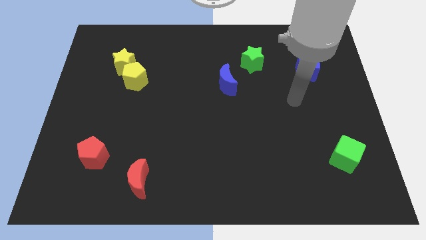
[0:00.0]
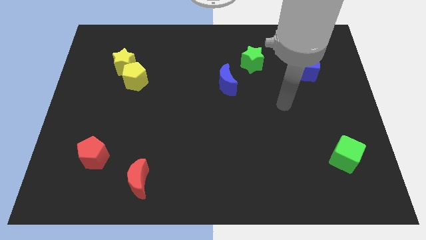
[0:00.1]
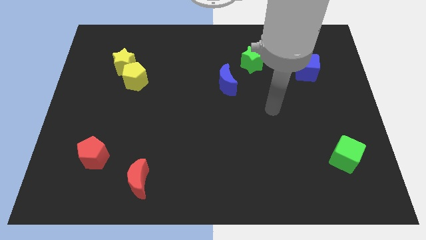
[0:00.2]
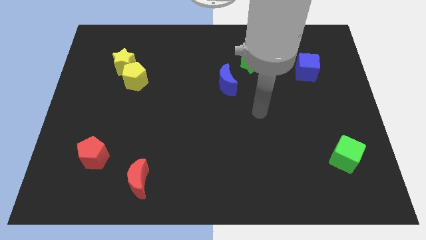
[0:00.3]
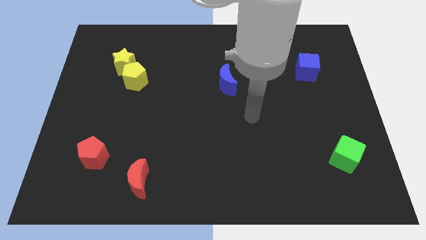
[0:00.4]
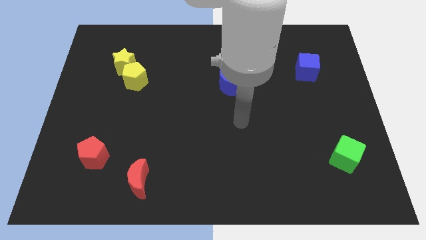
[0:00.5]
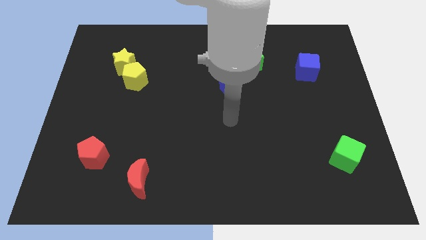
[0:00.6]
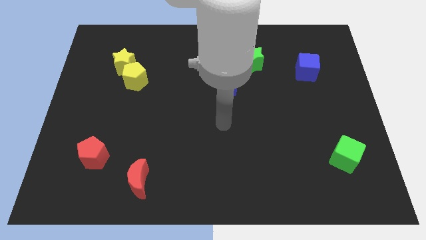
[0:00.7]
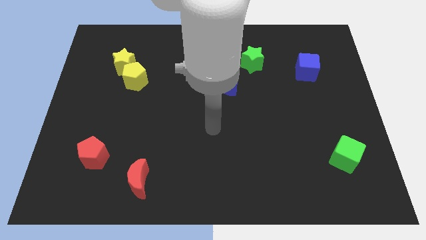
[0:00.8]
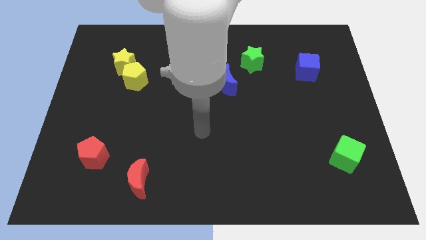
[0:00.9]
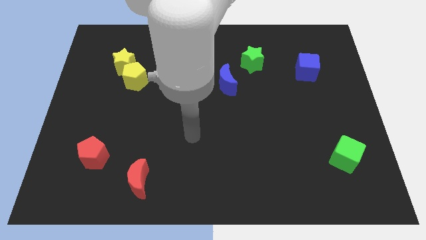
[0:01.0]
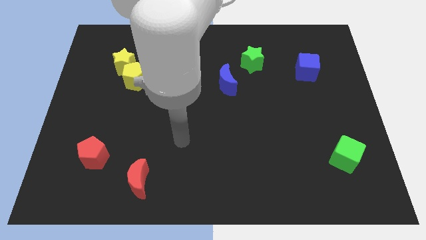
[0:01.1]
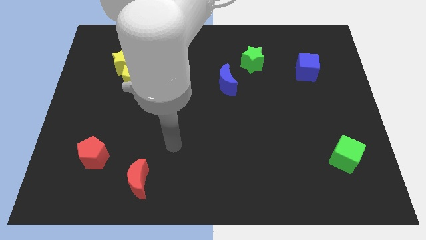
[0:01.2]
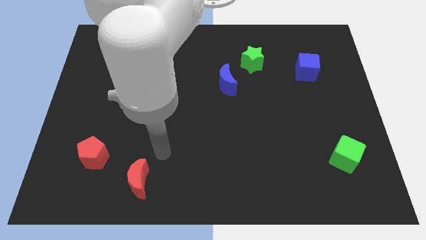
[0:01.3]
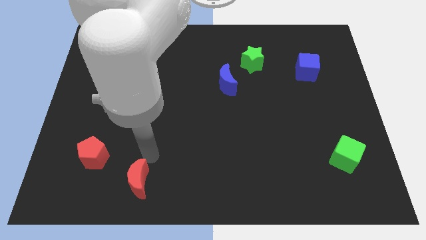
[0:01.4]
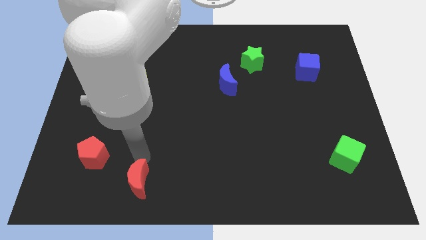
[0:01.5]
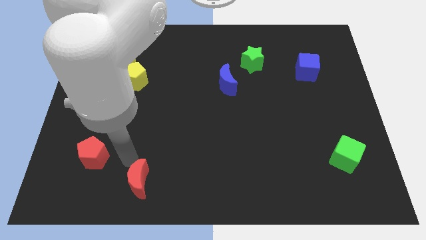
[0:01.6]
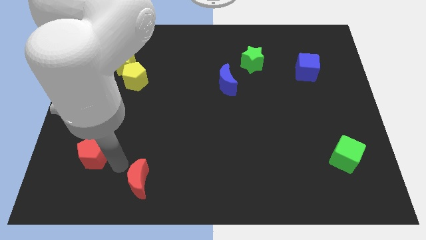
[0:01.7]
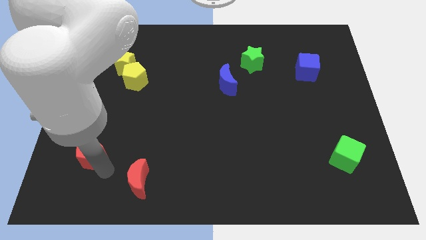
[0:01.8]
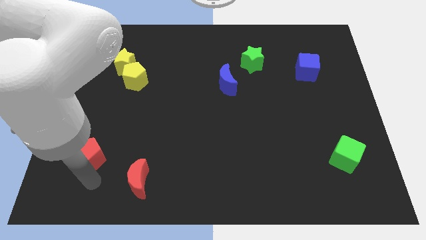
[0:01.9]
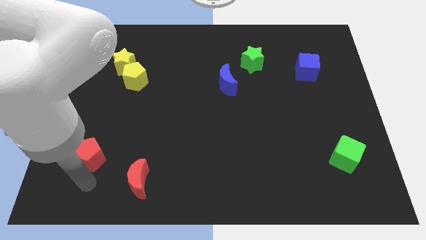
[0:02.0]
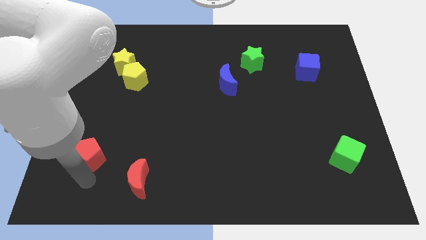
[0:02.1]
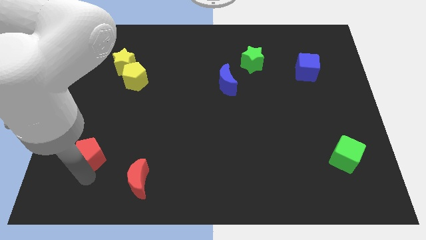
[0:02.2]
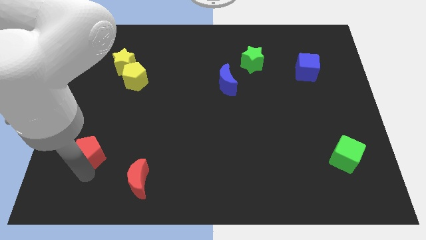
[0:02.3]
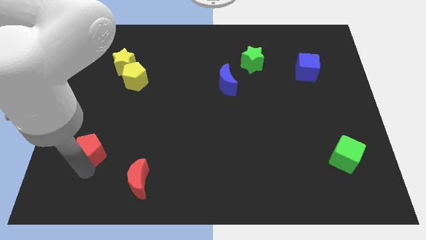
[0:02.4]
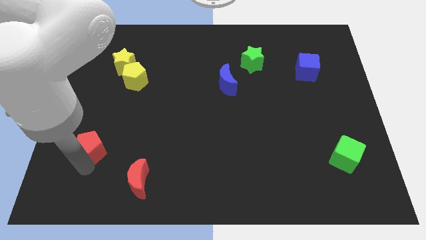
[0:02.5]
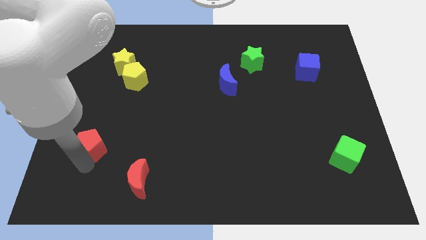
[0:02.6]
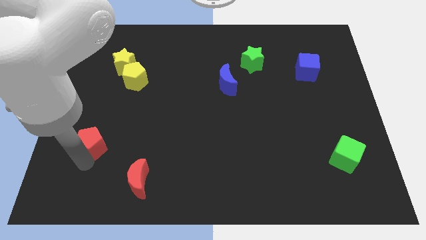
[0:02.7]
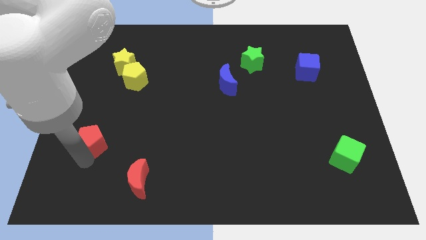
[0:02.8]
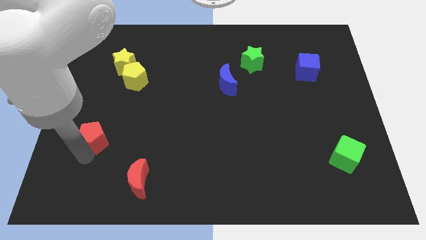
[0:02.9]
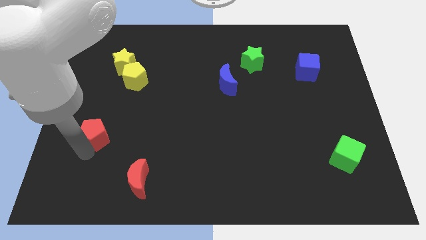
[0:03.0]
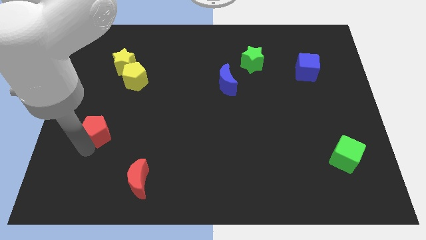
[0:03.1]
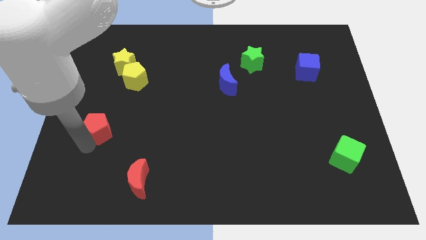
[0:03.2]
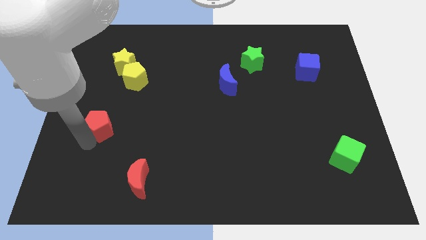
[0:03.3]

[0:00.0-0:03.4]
move the red pentagon a little bit up

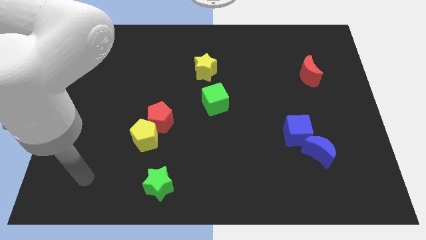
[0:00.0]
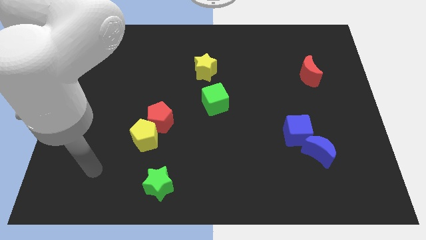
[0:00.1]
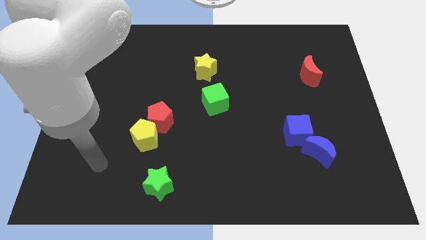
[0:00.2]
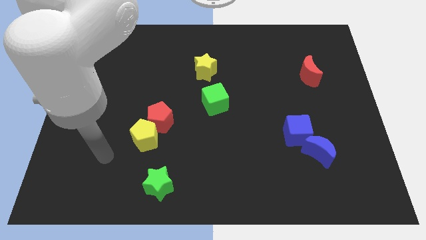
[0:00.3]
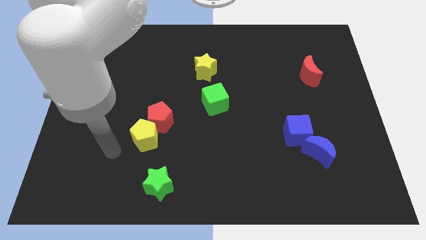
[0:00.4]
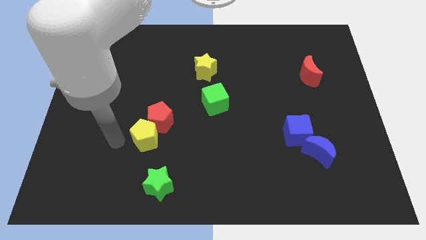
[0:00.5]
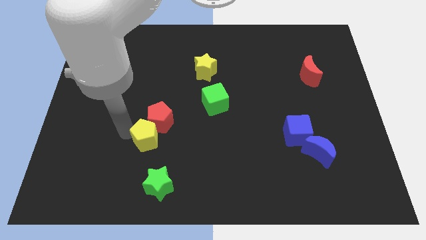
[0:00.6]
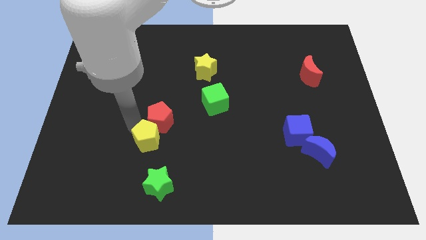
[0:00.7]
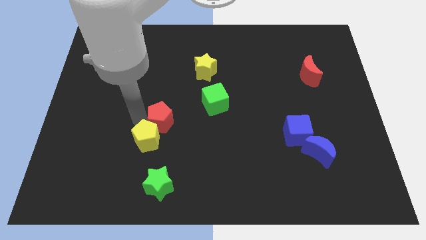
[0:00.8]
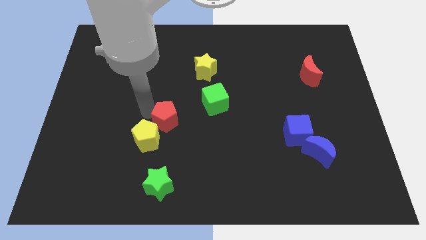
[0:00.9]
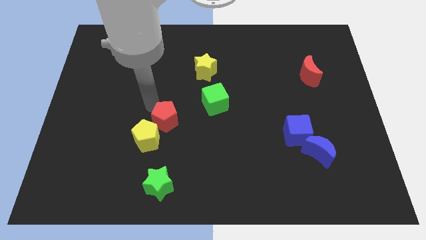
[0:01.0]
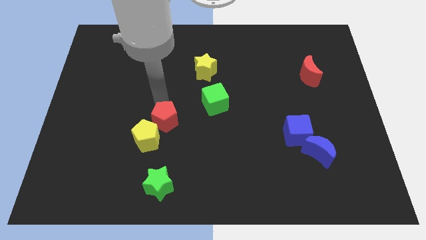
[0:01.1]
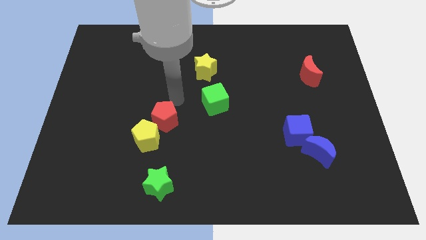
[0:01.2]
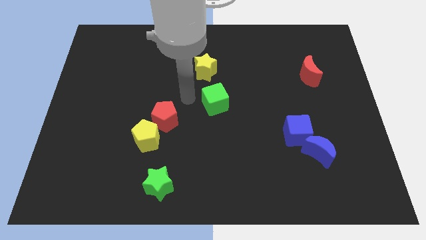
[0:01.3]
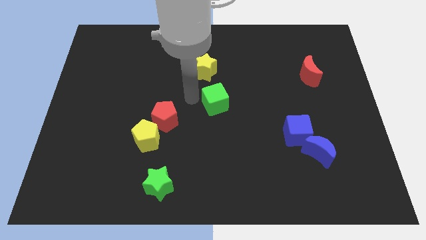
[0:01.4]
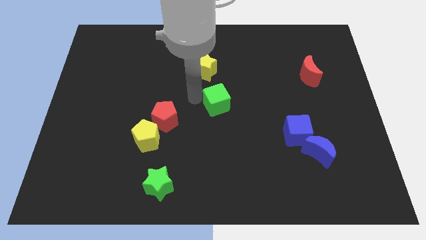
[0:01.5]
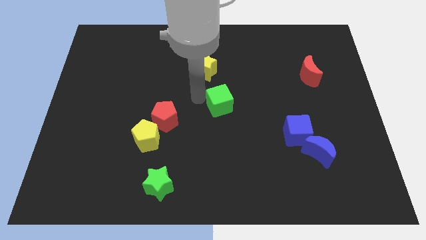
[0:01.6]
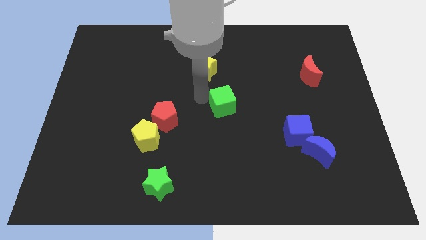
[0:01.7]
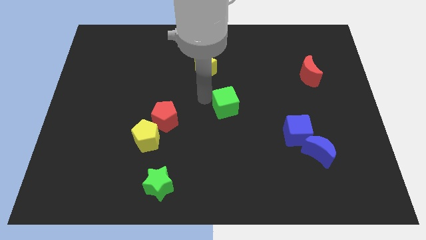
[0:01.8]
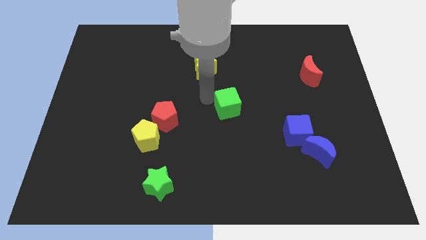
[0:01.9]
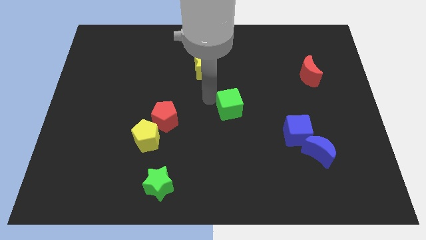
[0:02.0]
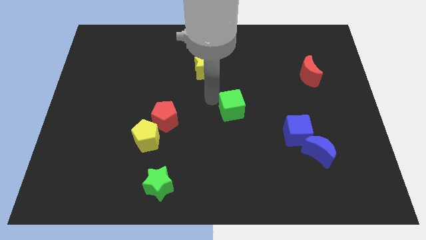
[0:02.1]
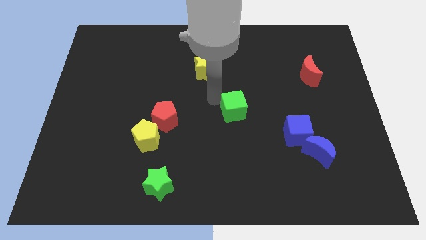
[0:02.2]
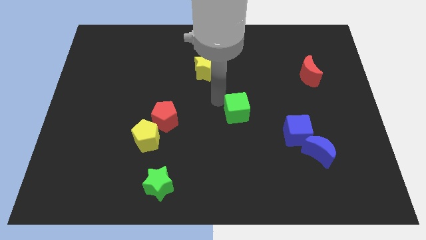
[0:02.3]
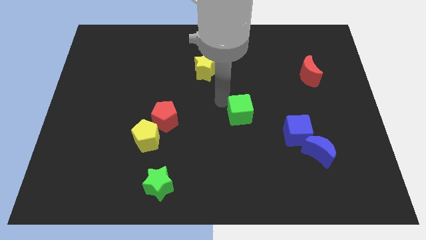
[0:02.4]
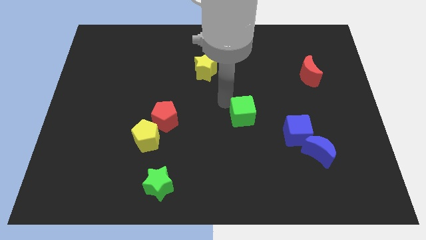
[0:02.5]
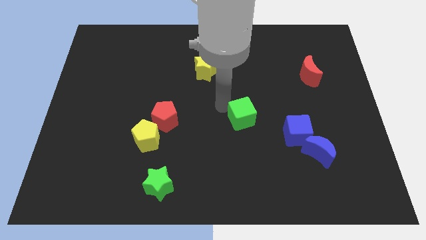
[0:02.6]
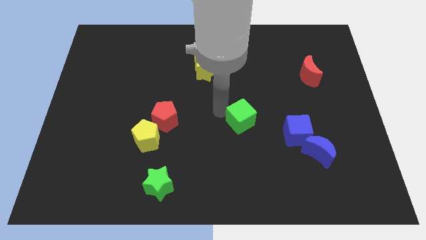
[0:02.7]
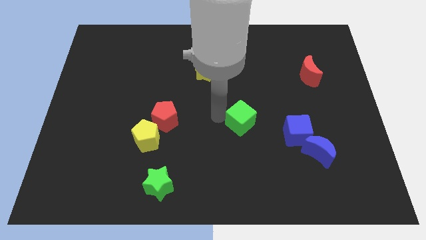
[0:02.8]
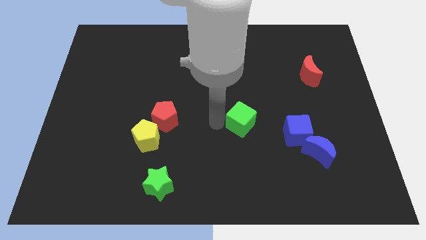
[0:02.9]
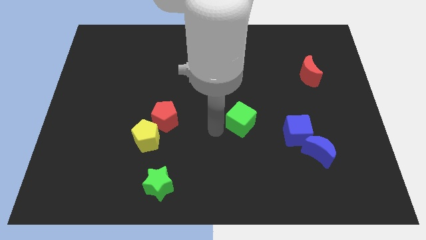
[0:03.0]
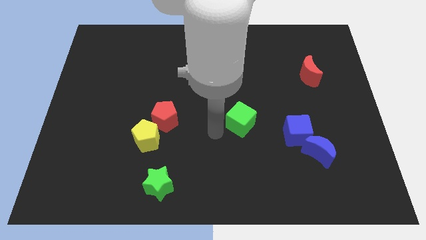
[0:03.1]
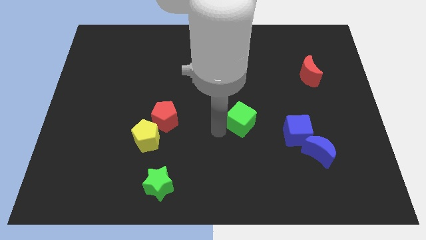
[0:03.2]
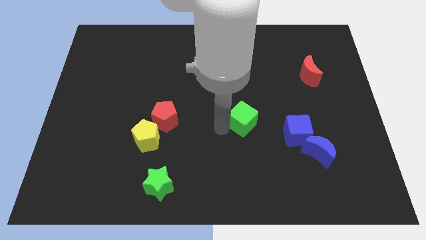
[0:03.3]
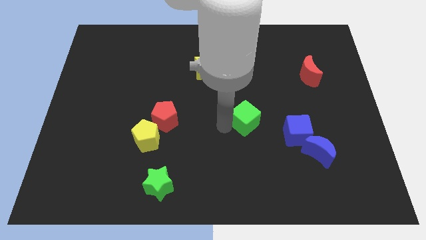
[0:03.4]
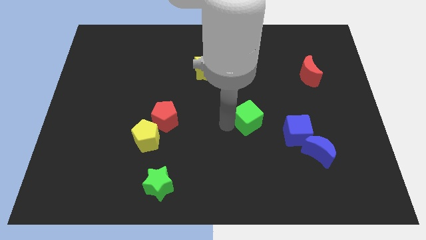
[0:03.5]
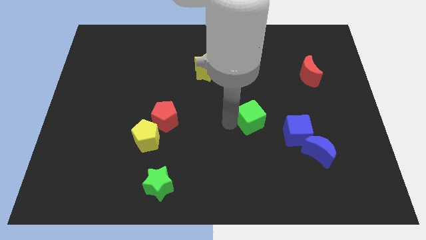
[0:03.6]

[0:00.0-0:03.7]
slightly slide the green cube to the right

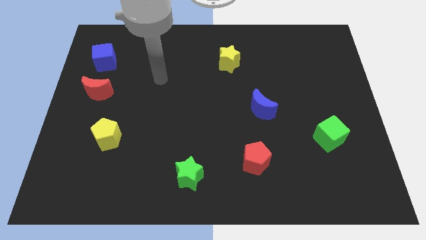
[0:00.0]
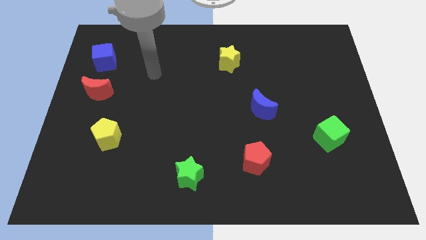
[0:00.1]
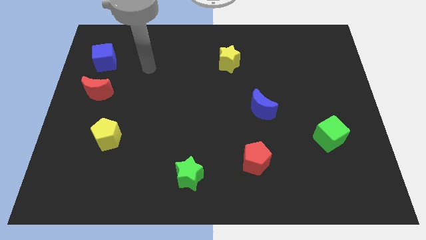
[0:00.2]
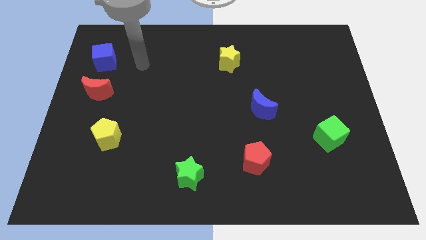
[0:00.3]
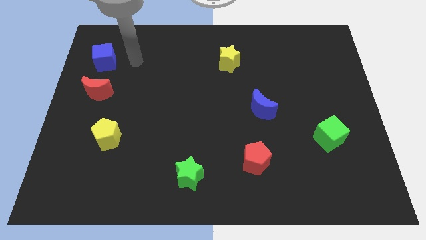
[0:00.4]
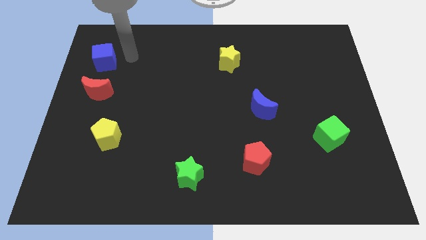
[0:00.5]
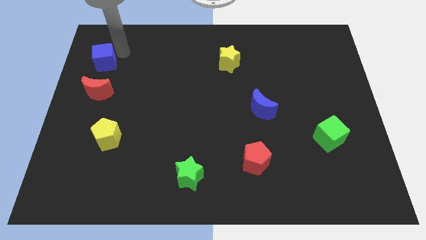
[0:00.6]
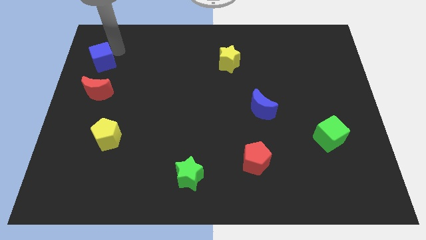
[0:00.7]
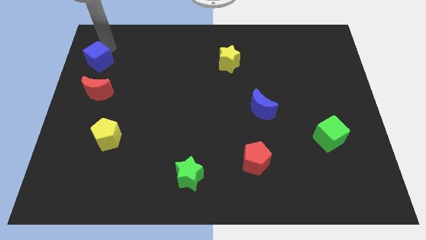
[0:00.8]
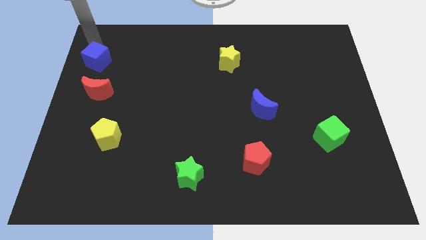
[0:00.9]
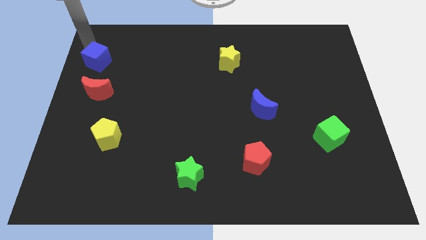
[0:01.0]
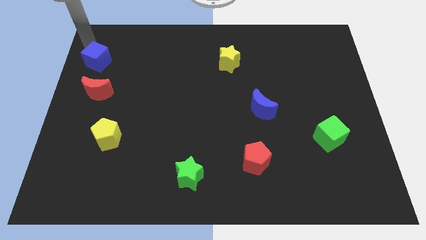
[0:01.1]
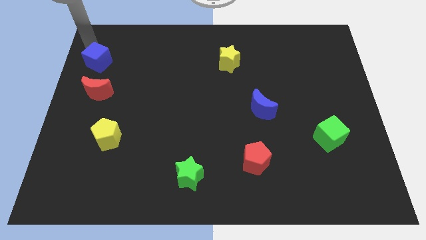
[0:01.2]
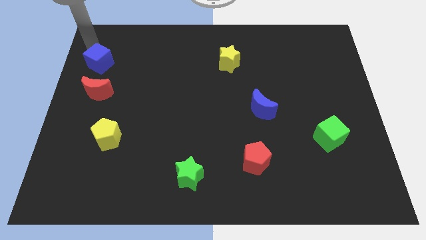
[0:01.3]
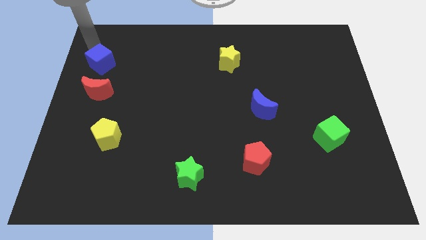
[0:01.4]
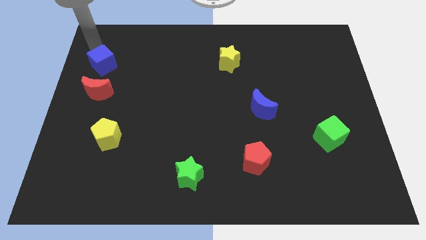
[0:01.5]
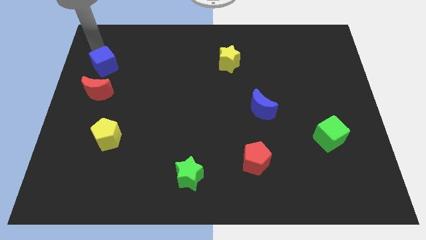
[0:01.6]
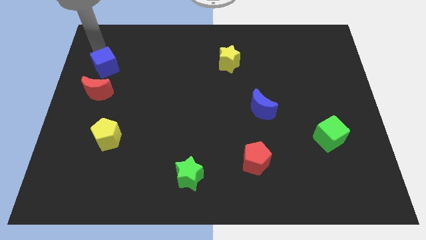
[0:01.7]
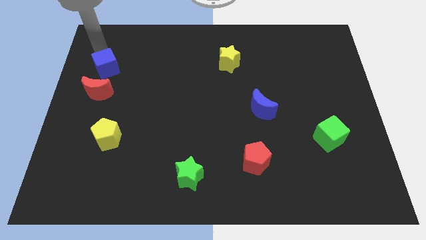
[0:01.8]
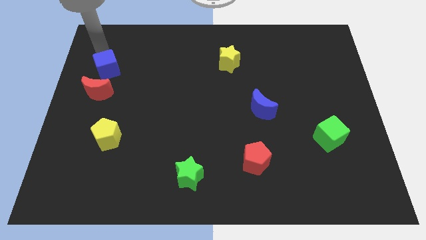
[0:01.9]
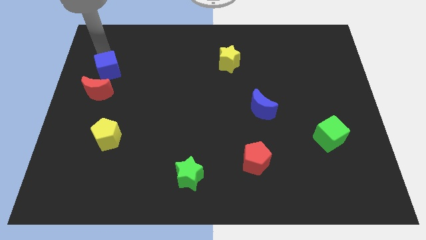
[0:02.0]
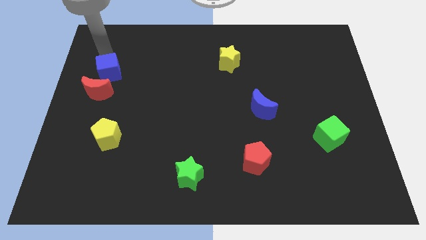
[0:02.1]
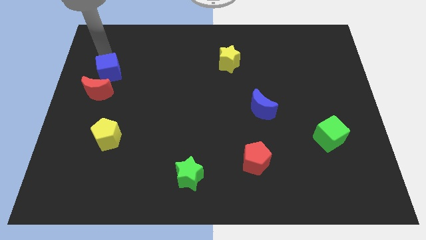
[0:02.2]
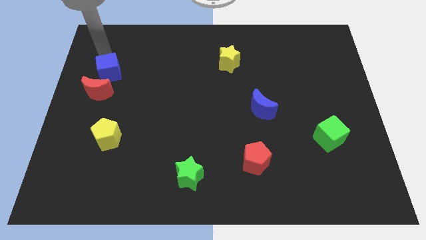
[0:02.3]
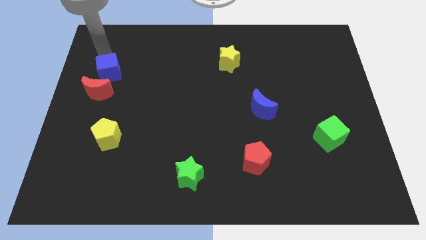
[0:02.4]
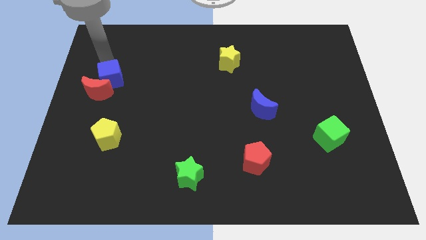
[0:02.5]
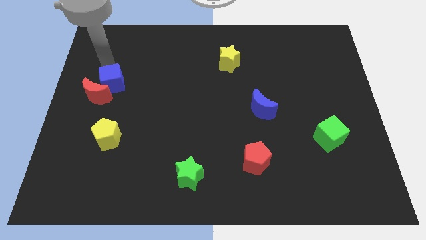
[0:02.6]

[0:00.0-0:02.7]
slide the blue cube down a bit
